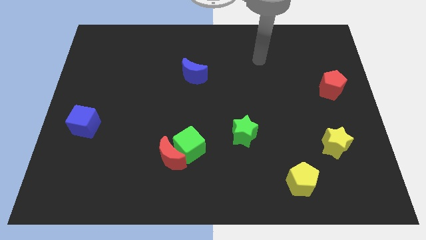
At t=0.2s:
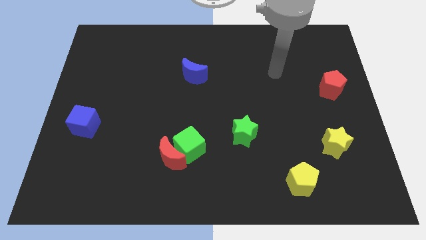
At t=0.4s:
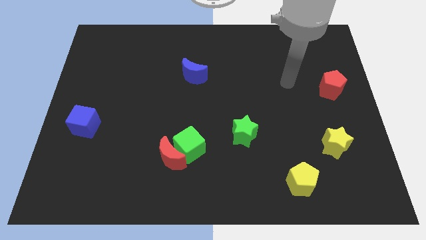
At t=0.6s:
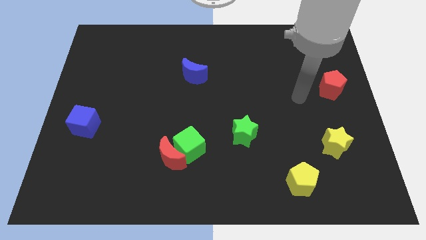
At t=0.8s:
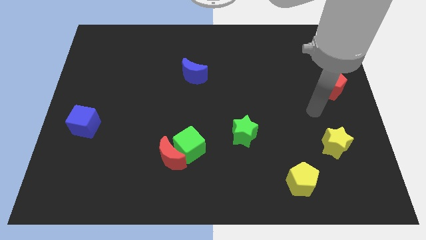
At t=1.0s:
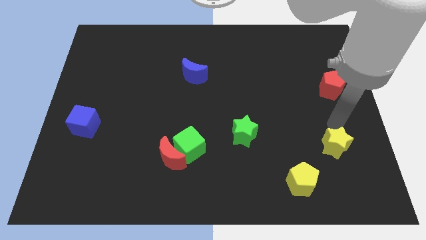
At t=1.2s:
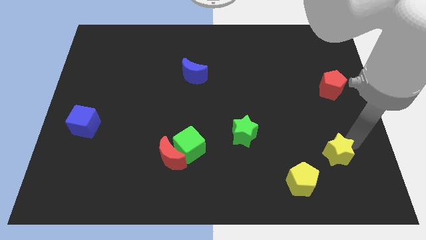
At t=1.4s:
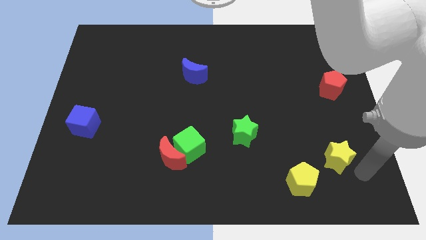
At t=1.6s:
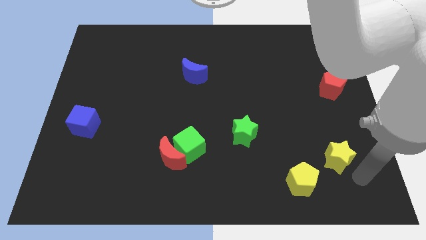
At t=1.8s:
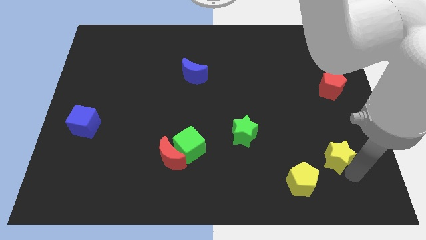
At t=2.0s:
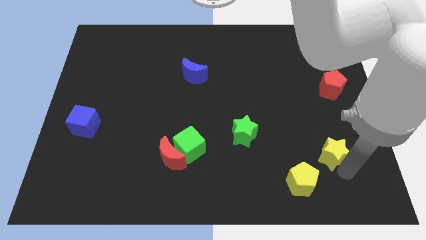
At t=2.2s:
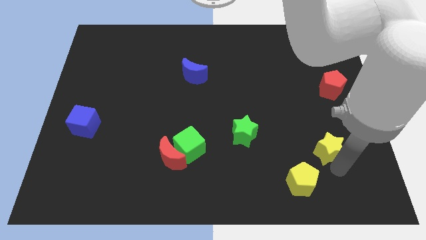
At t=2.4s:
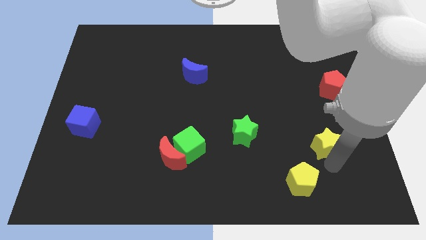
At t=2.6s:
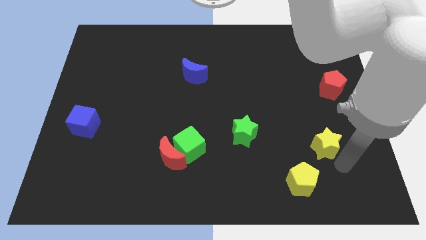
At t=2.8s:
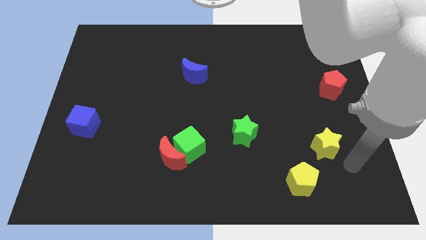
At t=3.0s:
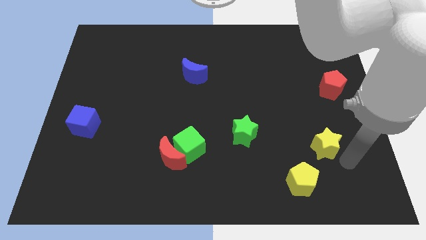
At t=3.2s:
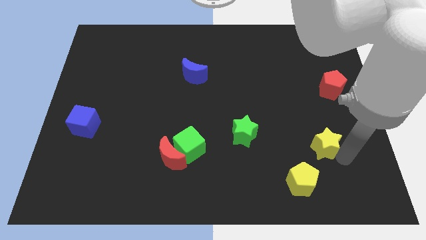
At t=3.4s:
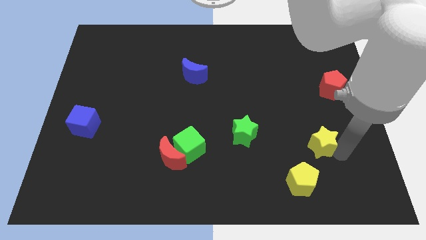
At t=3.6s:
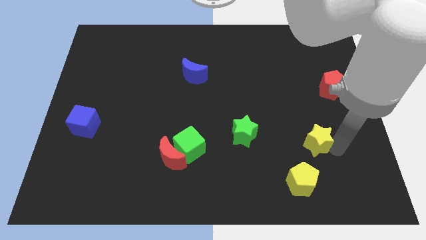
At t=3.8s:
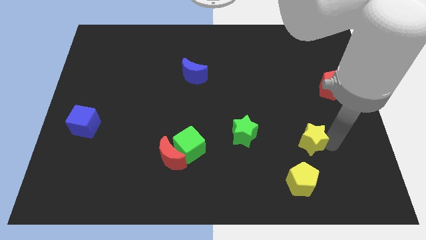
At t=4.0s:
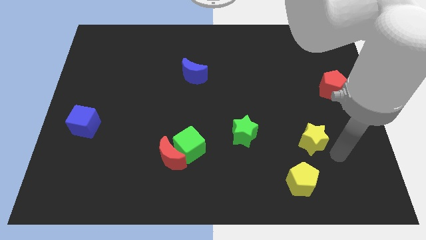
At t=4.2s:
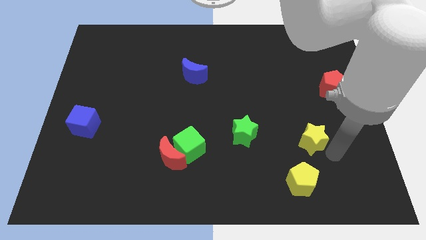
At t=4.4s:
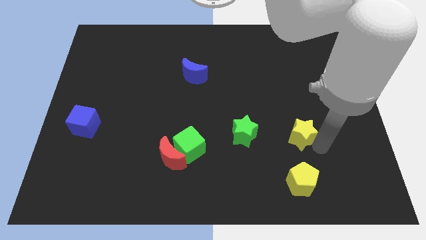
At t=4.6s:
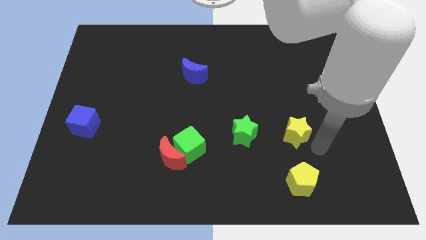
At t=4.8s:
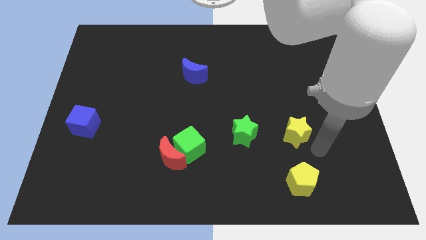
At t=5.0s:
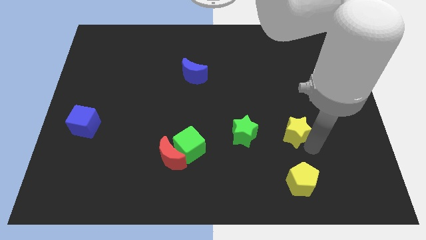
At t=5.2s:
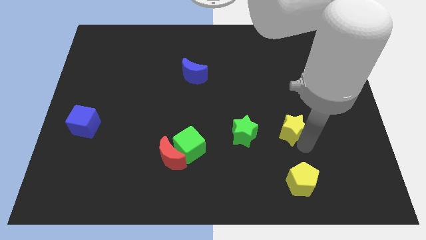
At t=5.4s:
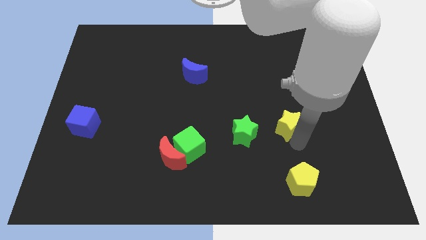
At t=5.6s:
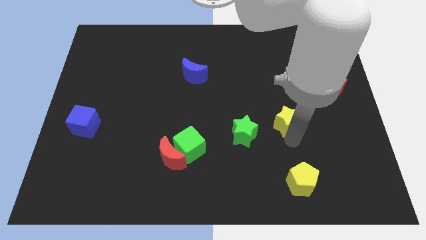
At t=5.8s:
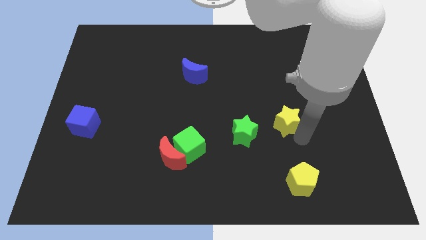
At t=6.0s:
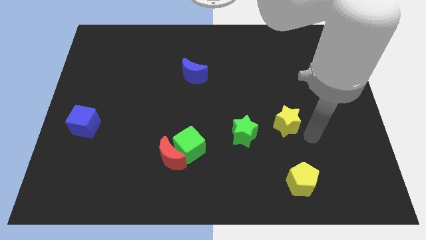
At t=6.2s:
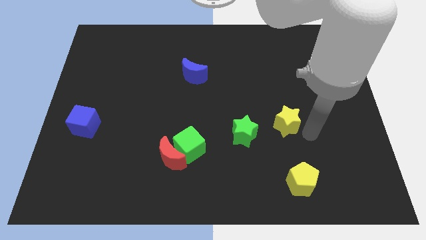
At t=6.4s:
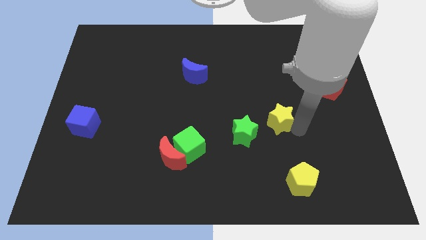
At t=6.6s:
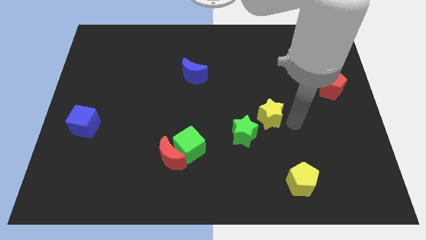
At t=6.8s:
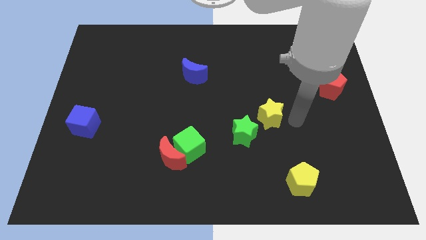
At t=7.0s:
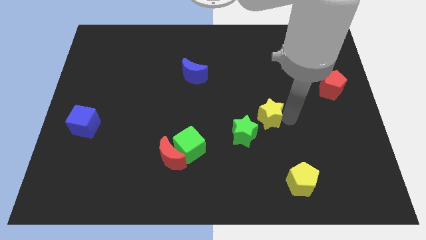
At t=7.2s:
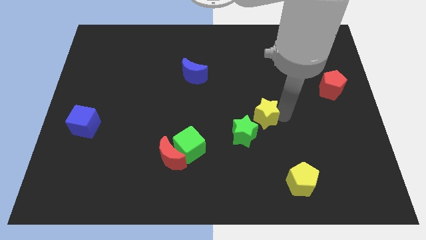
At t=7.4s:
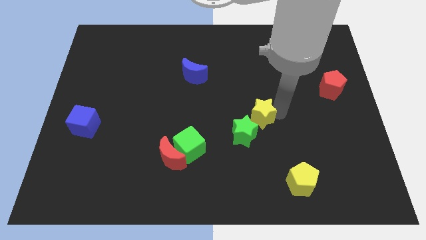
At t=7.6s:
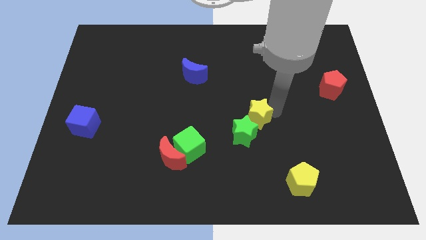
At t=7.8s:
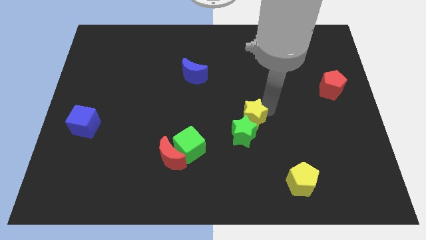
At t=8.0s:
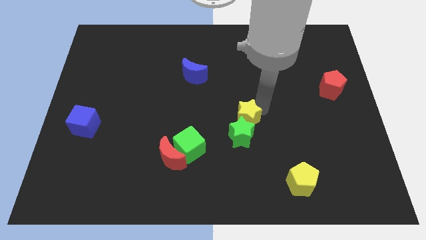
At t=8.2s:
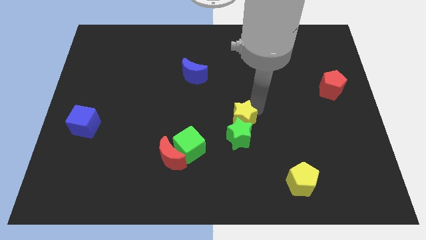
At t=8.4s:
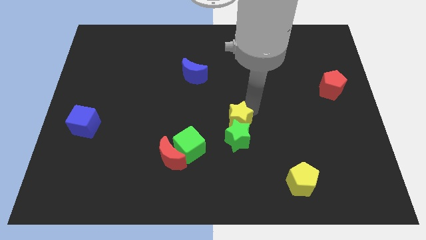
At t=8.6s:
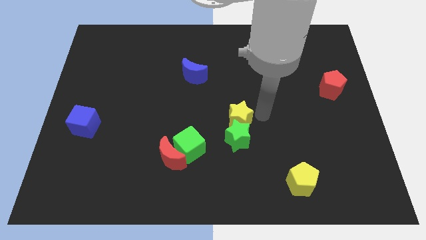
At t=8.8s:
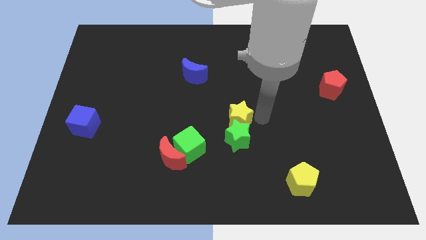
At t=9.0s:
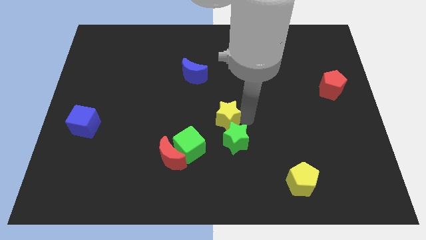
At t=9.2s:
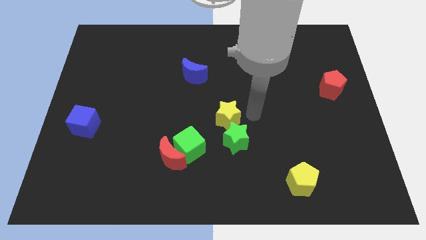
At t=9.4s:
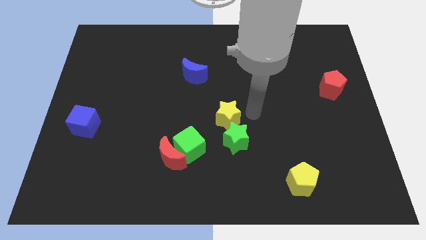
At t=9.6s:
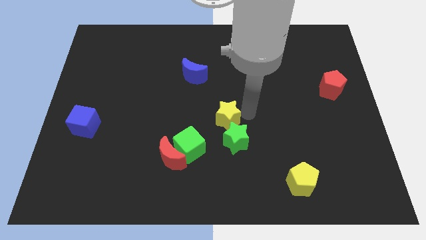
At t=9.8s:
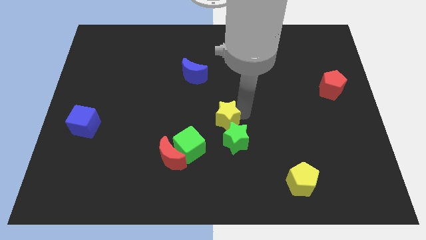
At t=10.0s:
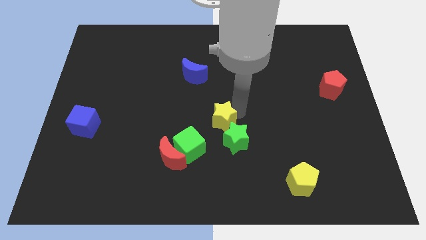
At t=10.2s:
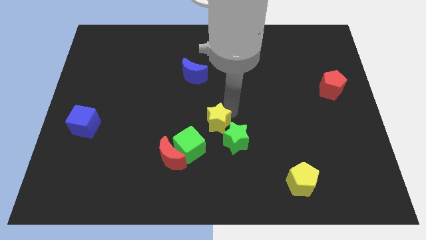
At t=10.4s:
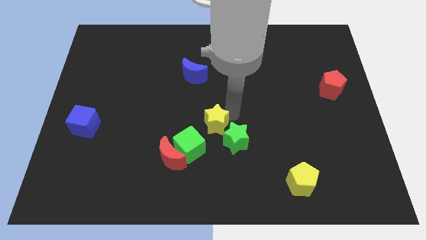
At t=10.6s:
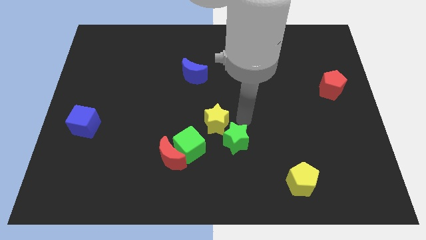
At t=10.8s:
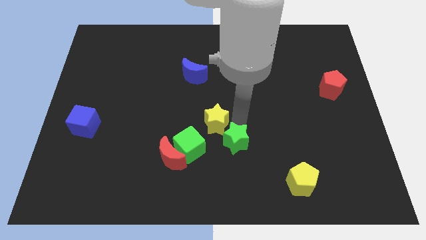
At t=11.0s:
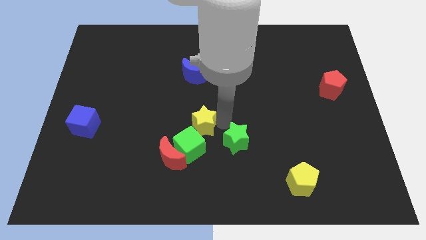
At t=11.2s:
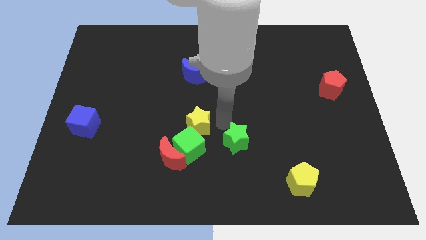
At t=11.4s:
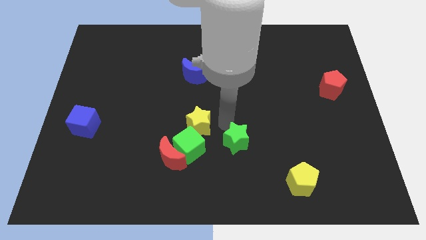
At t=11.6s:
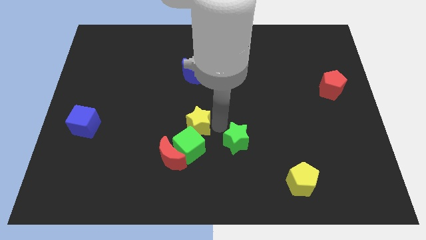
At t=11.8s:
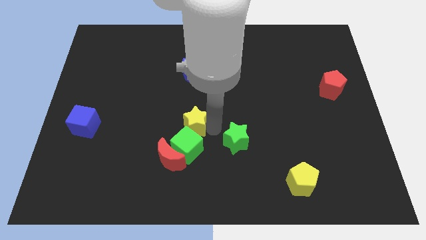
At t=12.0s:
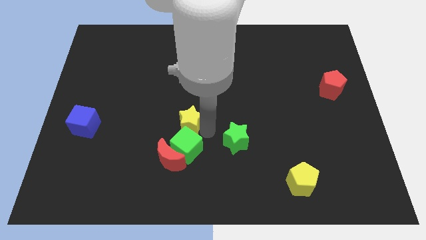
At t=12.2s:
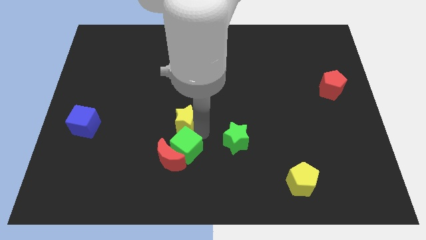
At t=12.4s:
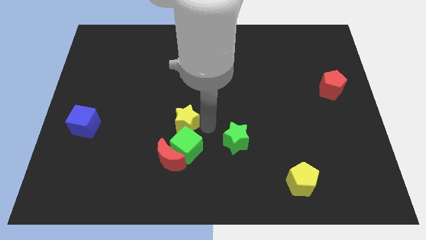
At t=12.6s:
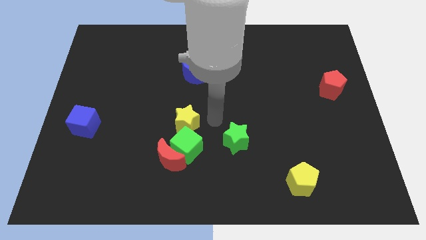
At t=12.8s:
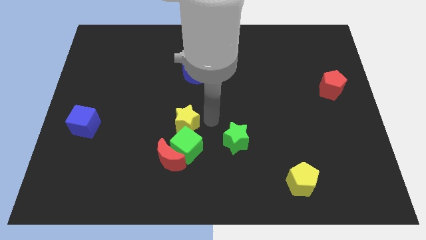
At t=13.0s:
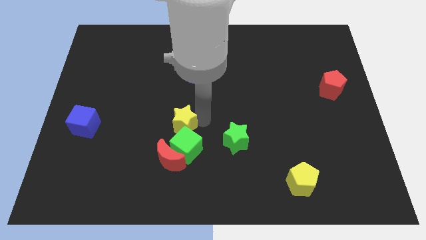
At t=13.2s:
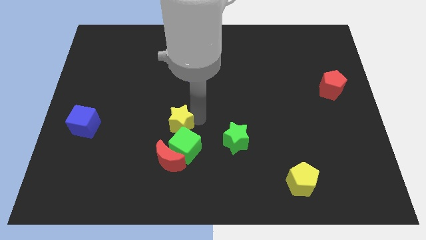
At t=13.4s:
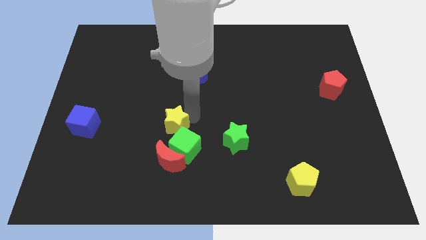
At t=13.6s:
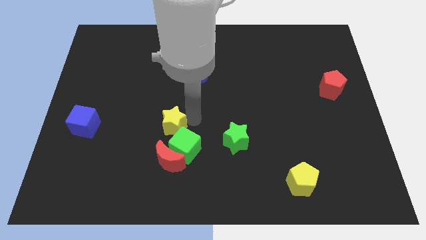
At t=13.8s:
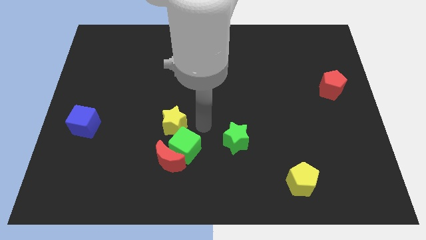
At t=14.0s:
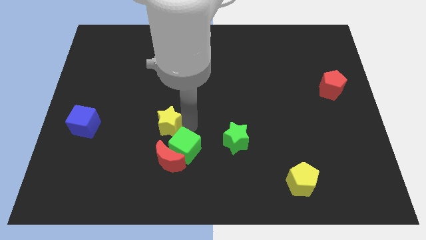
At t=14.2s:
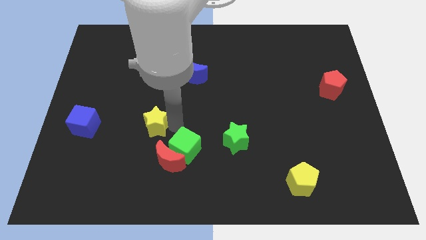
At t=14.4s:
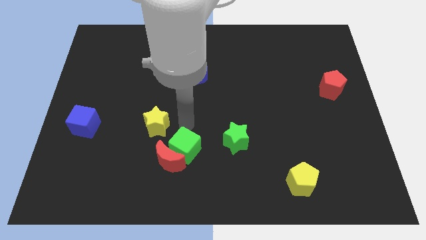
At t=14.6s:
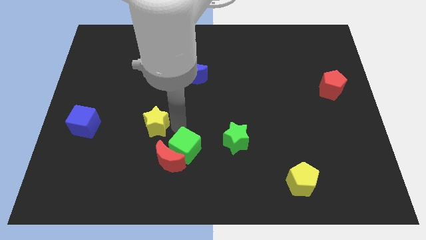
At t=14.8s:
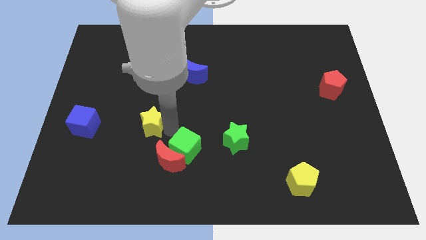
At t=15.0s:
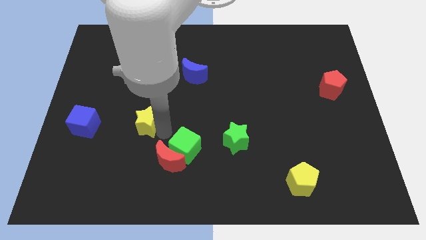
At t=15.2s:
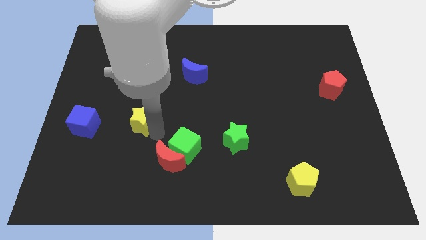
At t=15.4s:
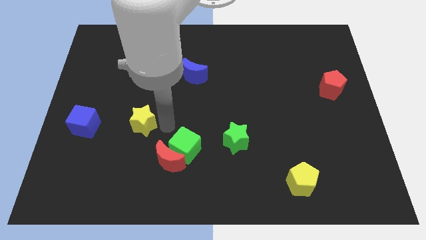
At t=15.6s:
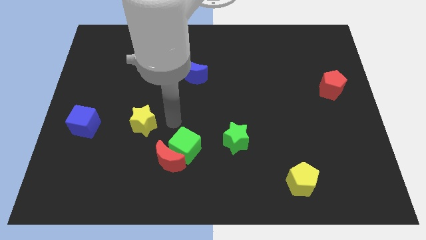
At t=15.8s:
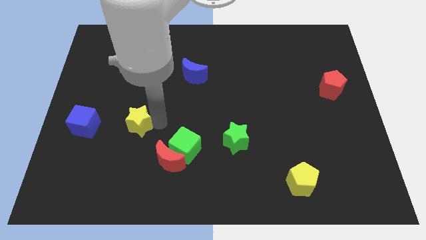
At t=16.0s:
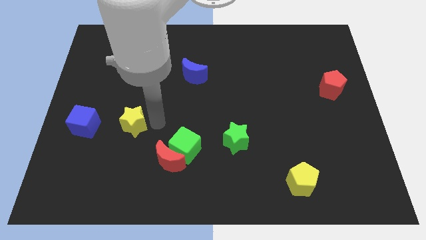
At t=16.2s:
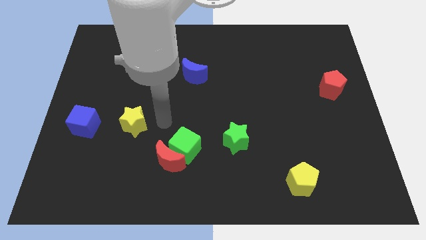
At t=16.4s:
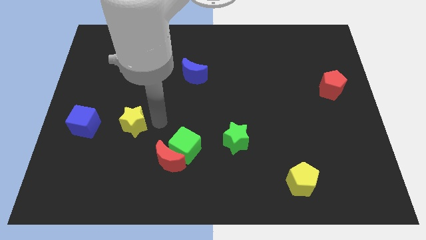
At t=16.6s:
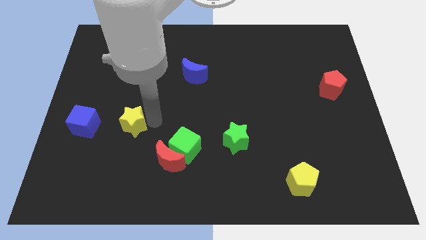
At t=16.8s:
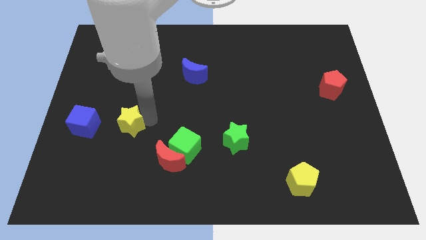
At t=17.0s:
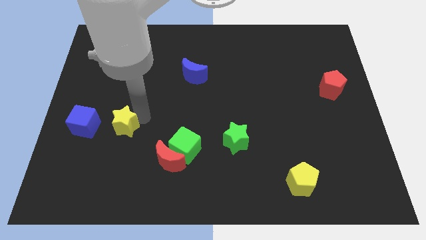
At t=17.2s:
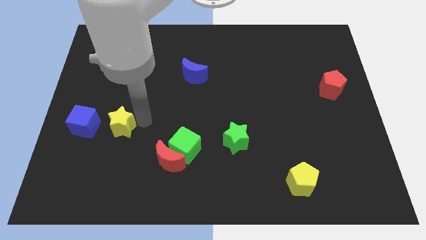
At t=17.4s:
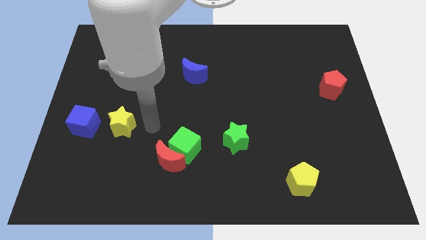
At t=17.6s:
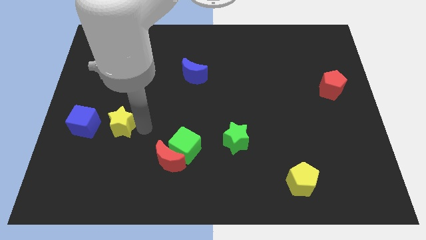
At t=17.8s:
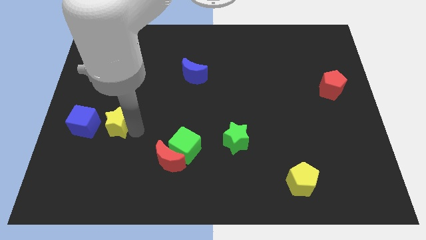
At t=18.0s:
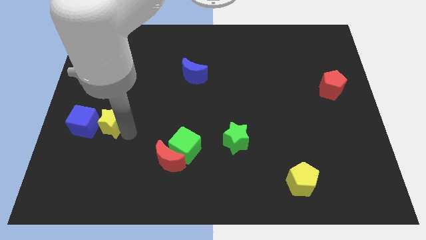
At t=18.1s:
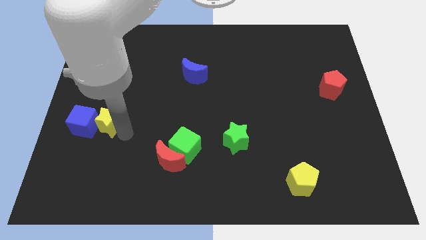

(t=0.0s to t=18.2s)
push the yellow star next to the blue cube
